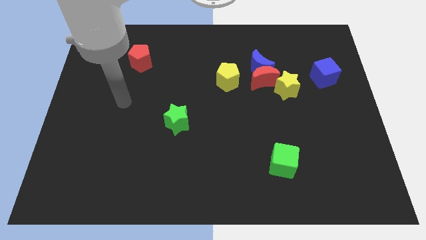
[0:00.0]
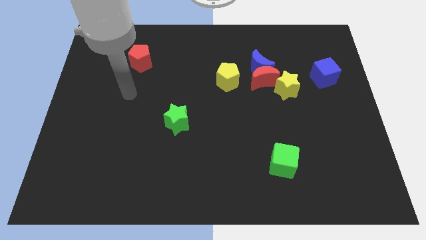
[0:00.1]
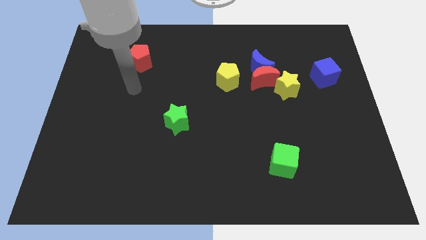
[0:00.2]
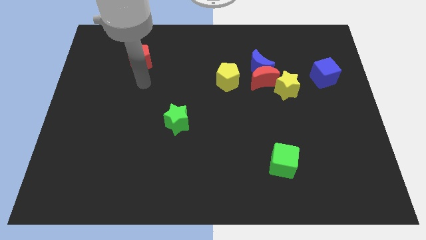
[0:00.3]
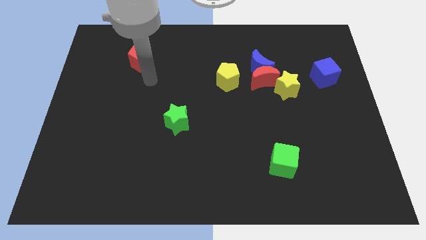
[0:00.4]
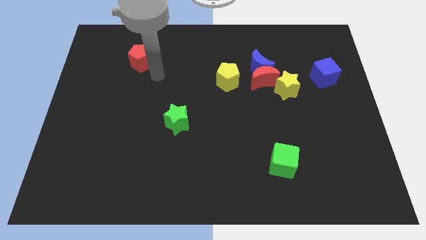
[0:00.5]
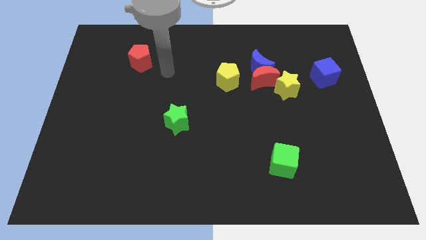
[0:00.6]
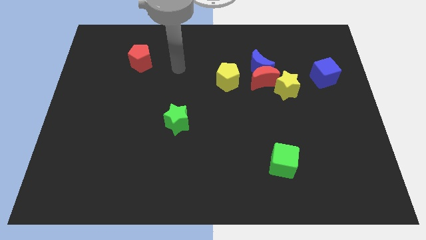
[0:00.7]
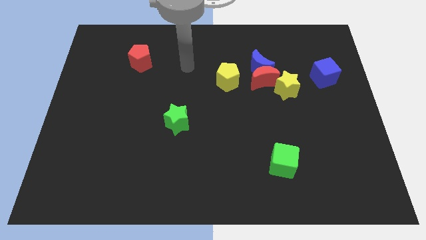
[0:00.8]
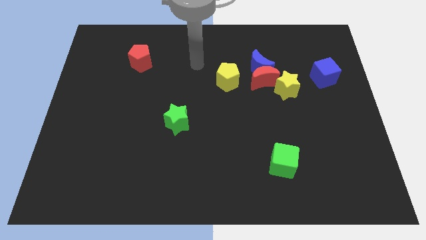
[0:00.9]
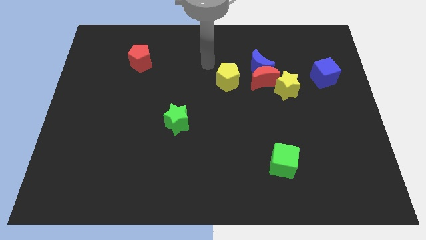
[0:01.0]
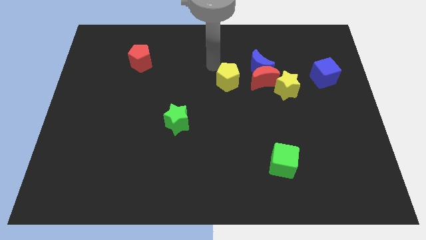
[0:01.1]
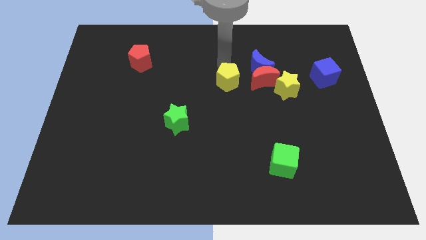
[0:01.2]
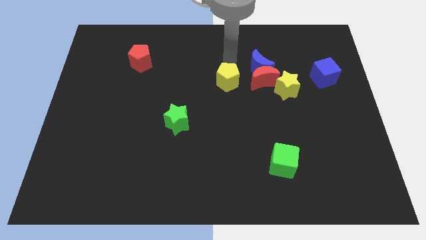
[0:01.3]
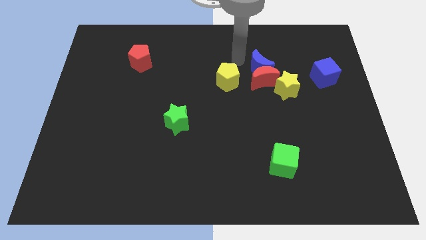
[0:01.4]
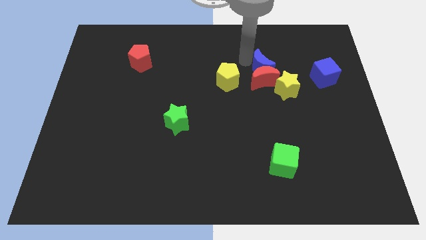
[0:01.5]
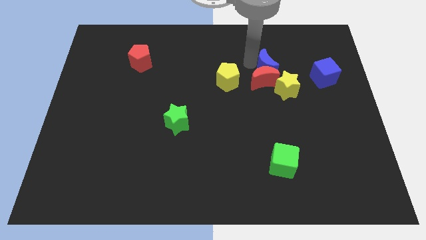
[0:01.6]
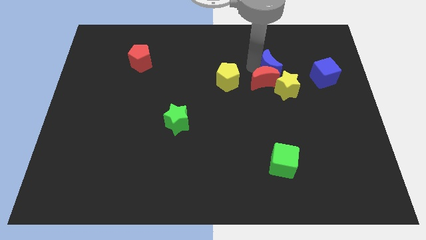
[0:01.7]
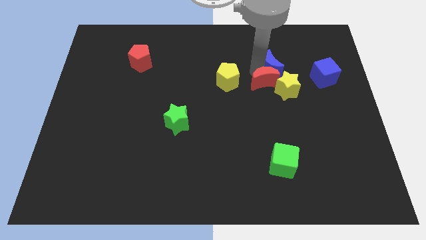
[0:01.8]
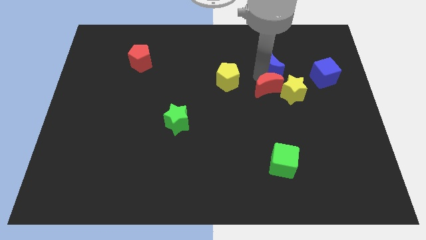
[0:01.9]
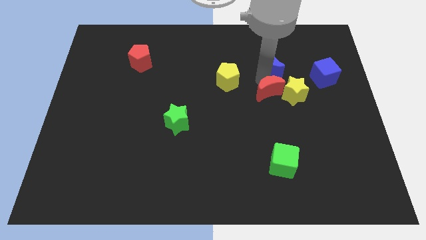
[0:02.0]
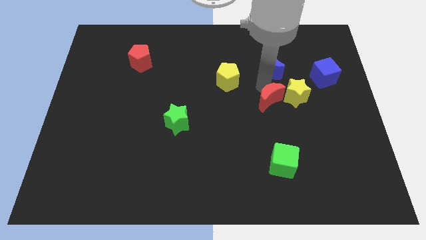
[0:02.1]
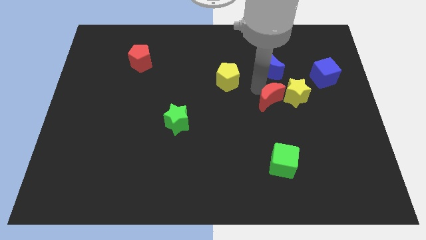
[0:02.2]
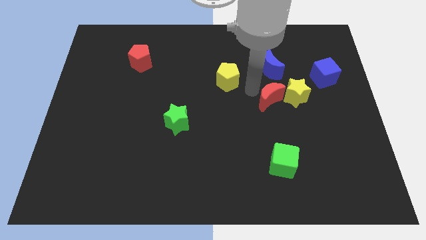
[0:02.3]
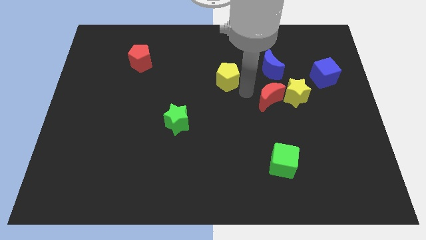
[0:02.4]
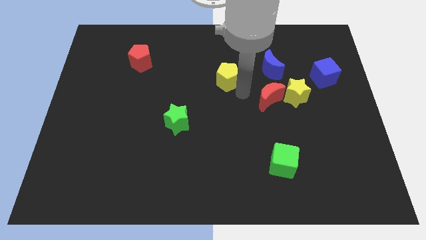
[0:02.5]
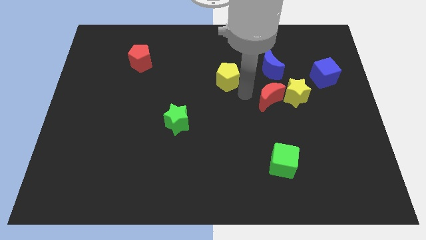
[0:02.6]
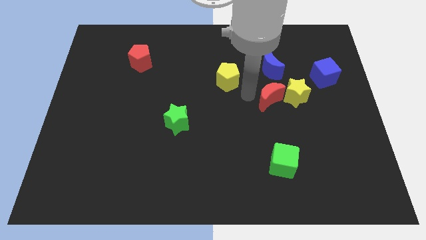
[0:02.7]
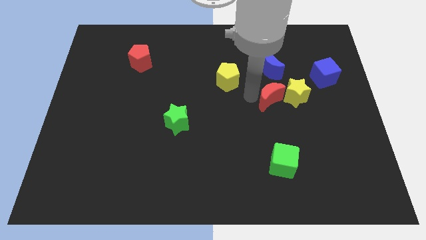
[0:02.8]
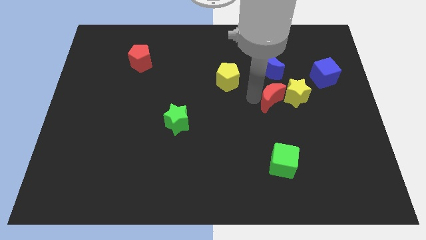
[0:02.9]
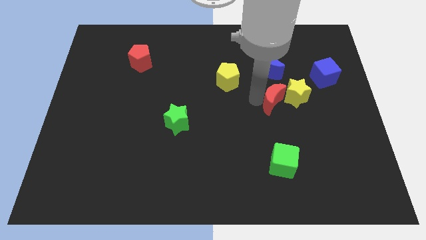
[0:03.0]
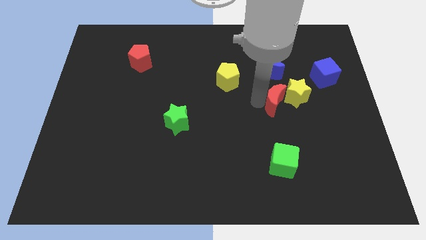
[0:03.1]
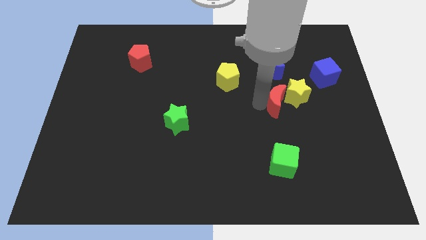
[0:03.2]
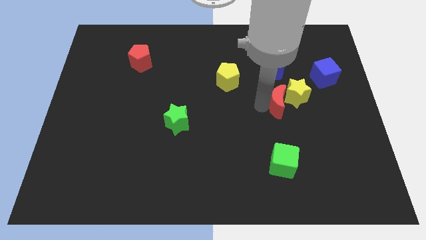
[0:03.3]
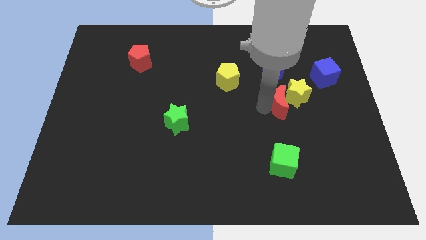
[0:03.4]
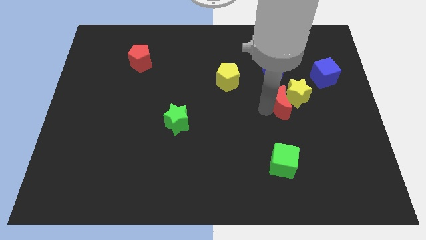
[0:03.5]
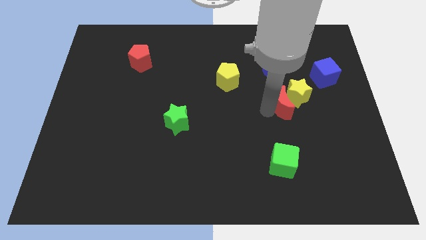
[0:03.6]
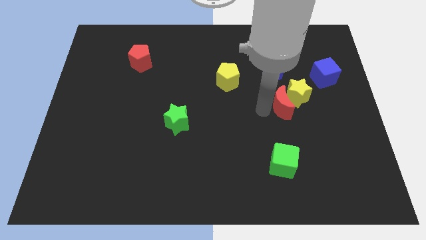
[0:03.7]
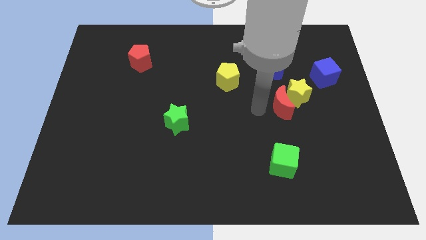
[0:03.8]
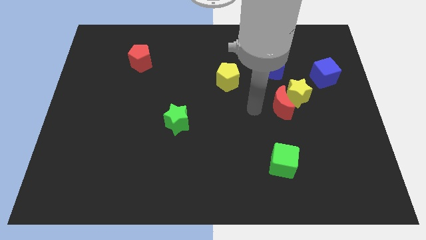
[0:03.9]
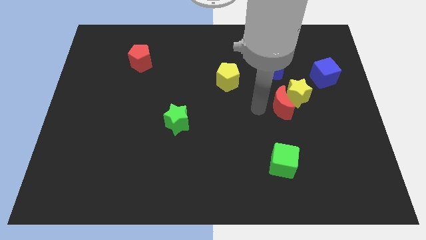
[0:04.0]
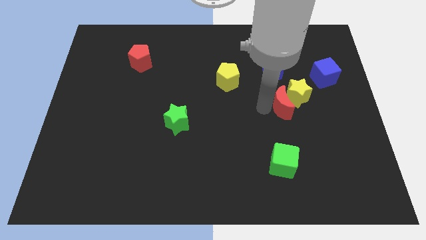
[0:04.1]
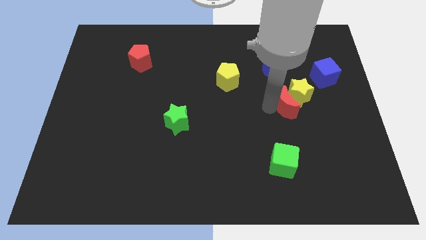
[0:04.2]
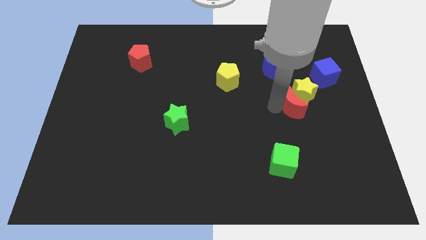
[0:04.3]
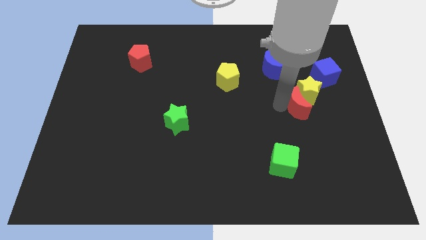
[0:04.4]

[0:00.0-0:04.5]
pull the red moon apart from the blue moon, yellow star, and yellow pentagon

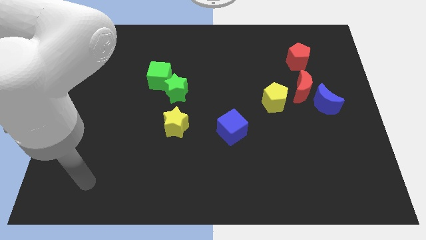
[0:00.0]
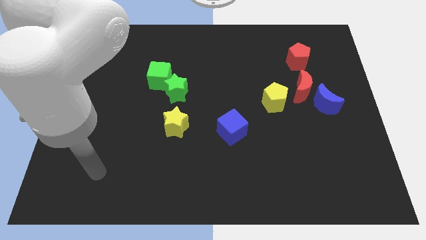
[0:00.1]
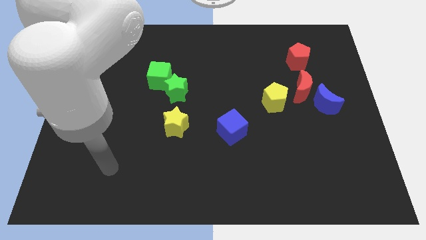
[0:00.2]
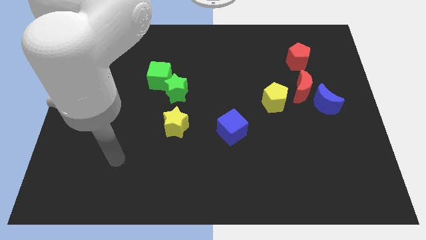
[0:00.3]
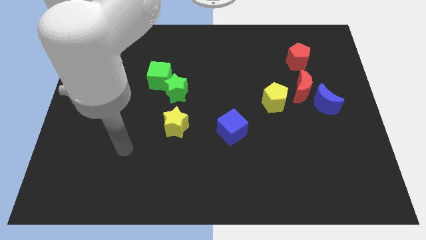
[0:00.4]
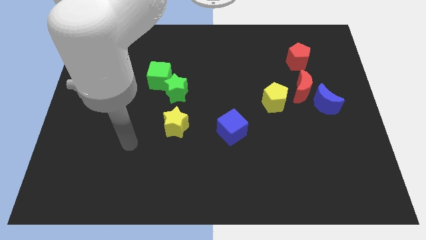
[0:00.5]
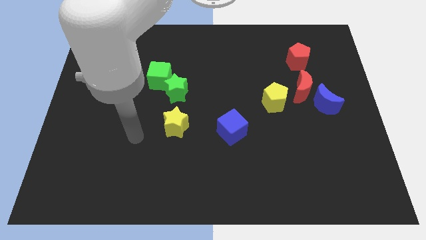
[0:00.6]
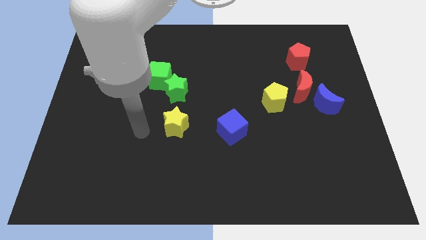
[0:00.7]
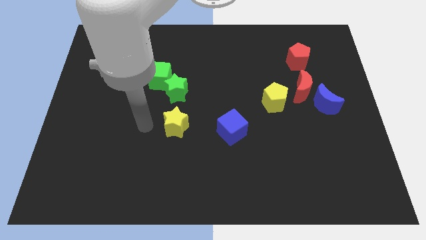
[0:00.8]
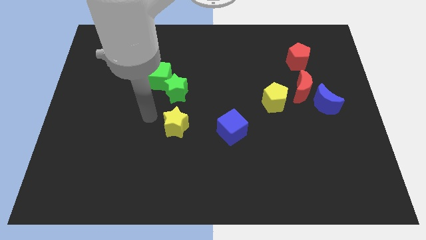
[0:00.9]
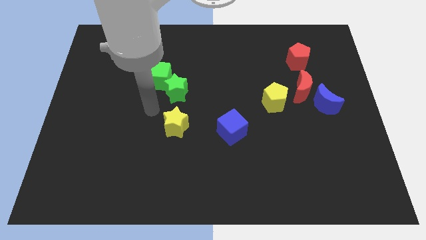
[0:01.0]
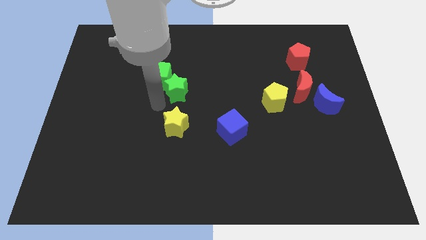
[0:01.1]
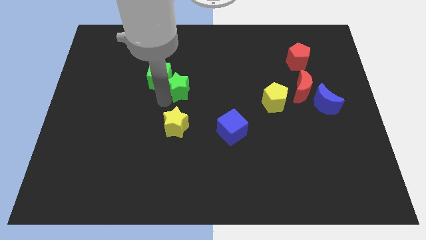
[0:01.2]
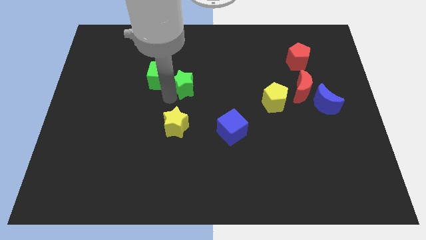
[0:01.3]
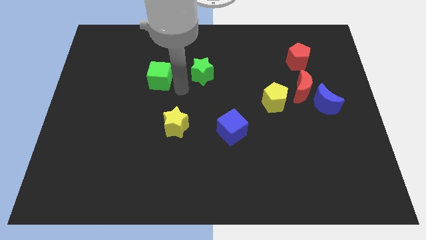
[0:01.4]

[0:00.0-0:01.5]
separate the green cube from the green star

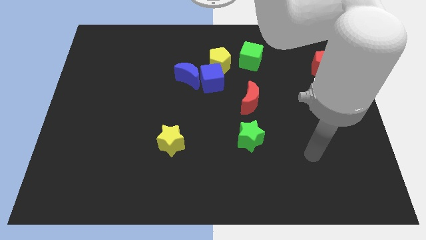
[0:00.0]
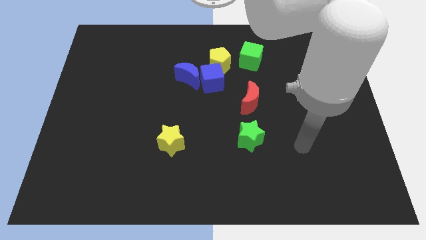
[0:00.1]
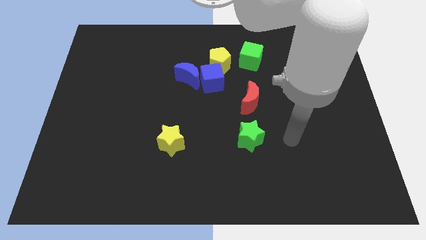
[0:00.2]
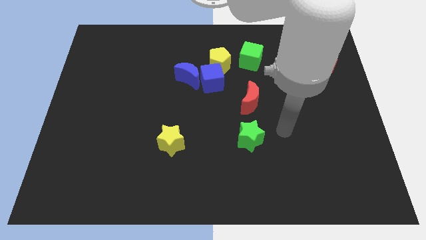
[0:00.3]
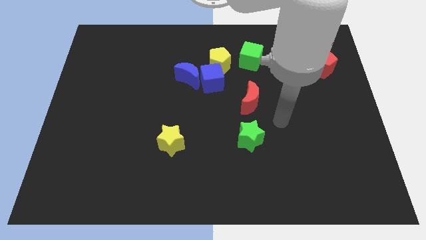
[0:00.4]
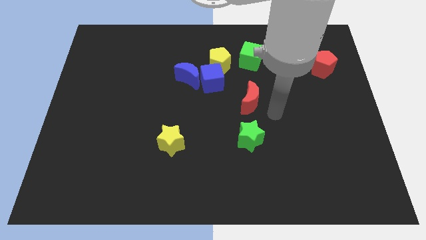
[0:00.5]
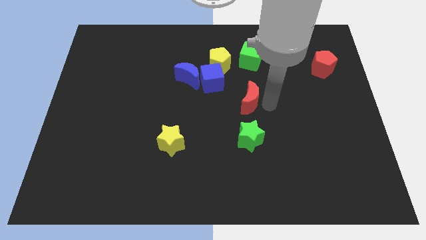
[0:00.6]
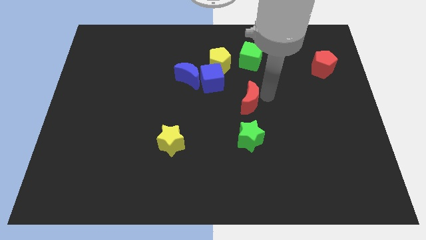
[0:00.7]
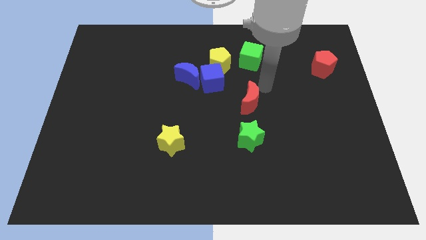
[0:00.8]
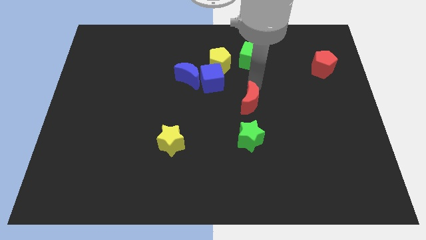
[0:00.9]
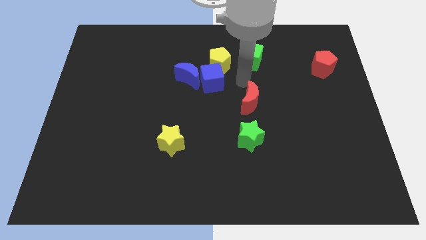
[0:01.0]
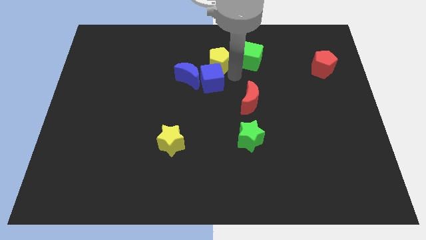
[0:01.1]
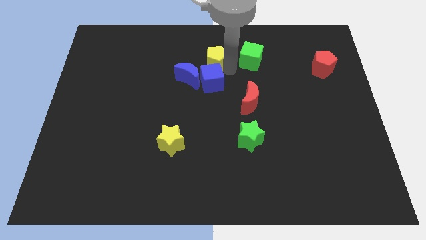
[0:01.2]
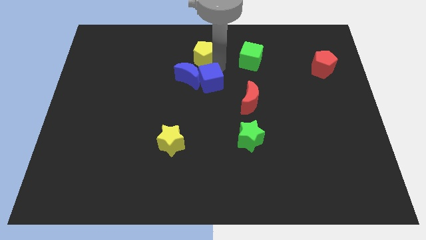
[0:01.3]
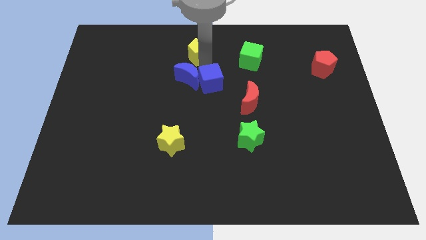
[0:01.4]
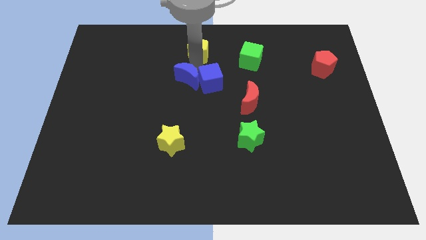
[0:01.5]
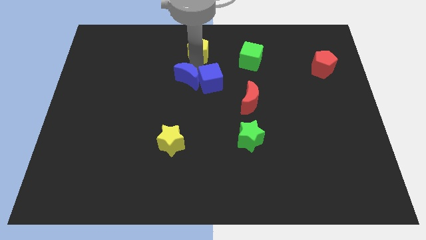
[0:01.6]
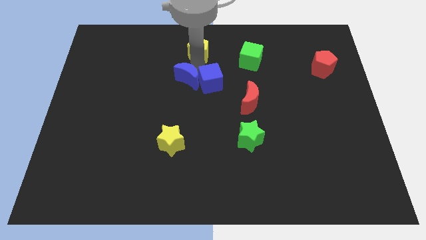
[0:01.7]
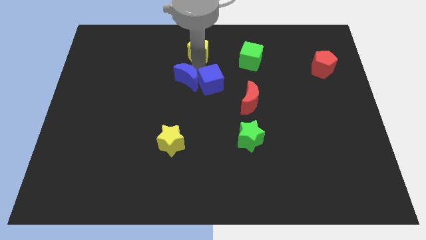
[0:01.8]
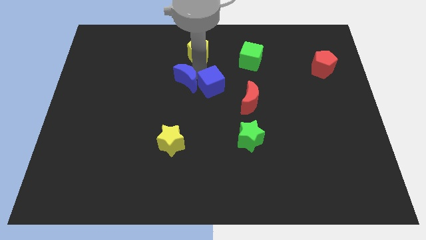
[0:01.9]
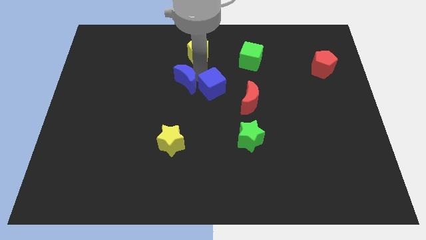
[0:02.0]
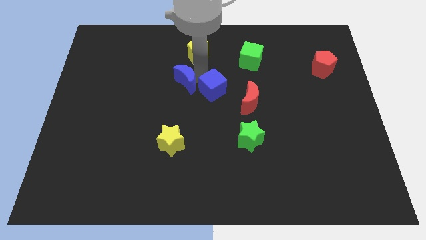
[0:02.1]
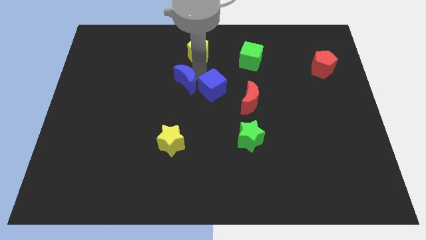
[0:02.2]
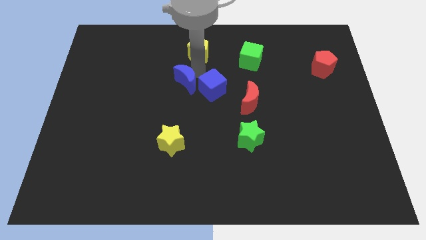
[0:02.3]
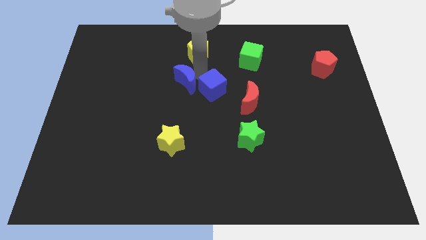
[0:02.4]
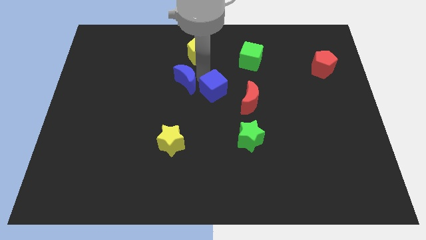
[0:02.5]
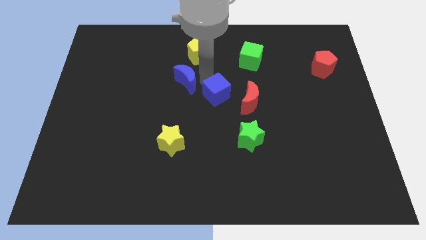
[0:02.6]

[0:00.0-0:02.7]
pull the blue cube apart from the blue moon and yellow pentagon

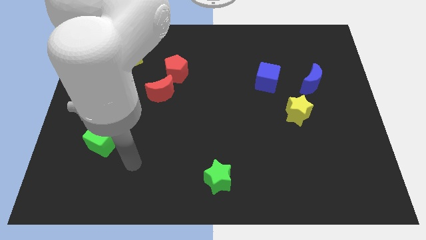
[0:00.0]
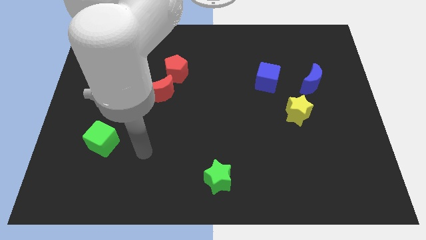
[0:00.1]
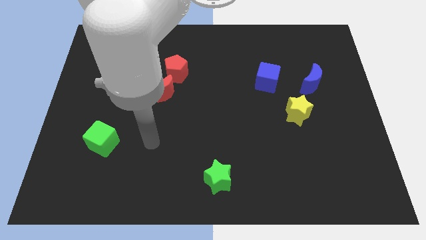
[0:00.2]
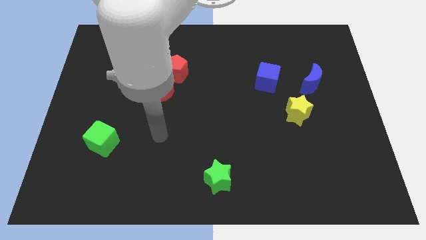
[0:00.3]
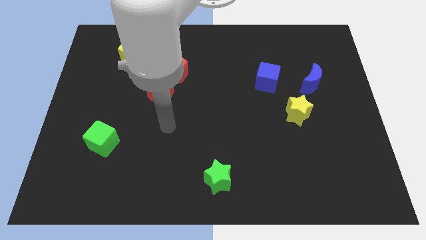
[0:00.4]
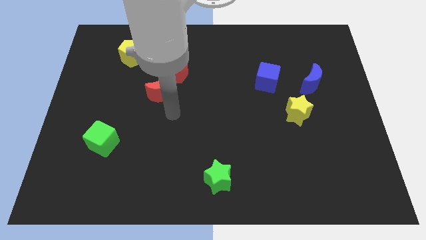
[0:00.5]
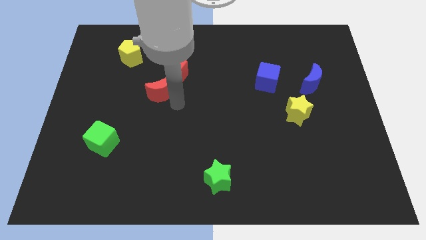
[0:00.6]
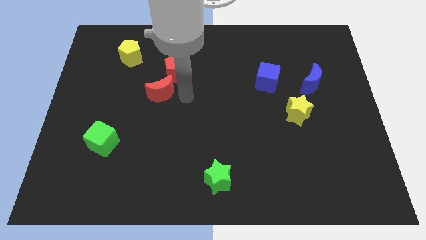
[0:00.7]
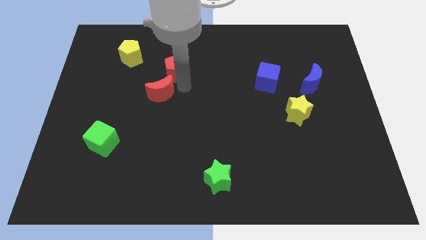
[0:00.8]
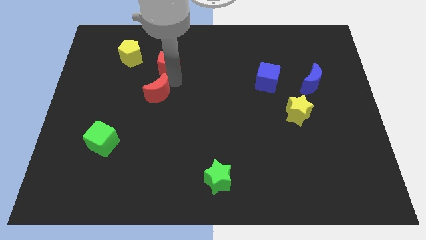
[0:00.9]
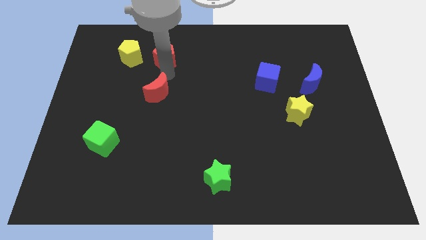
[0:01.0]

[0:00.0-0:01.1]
move the red moon away from the red pentagon
